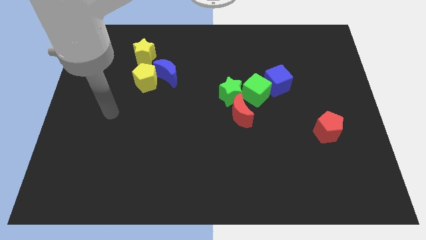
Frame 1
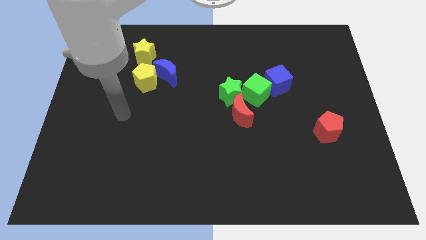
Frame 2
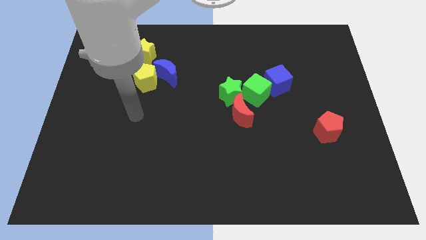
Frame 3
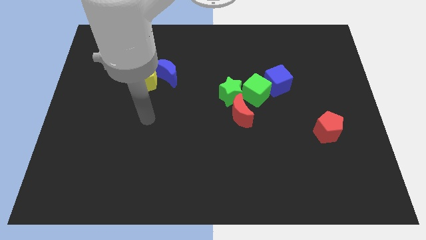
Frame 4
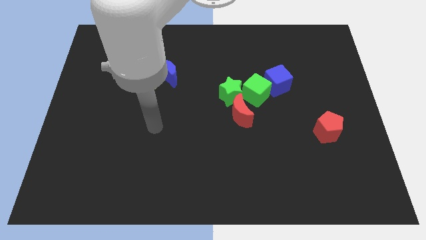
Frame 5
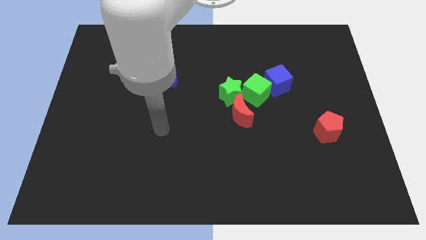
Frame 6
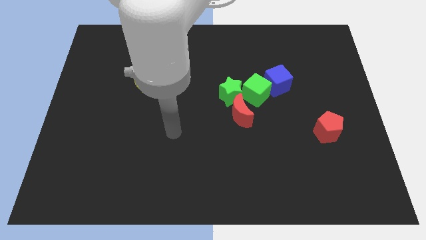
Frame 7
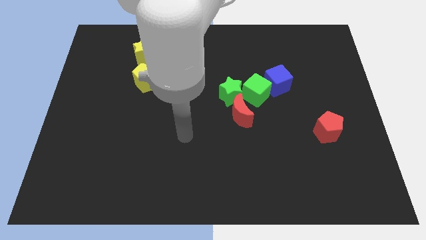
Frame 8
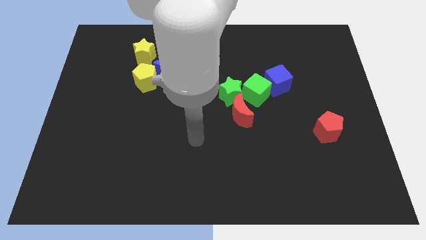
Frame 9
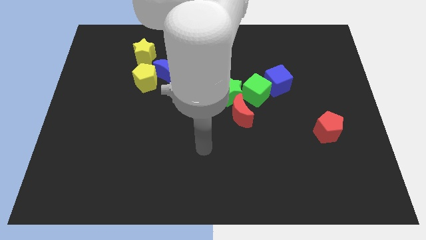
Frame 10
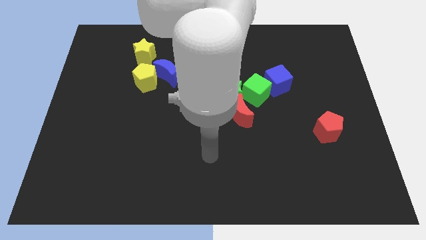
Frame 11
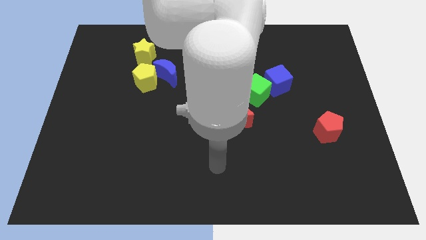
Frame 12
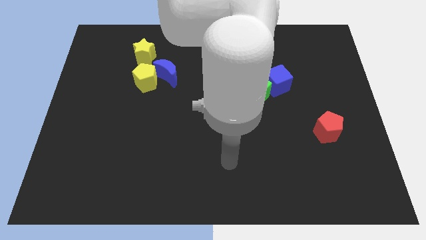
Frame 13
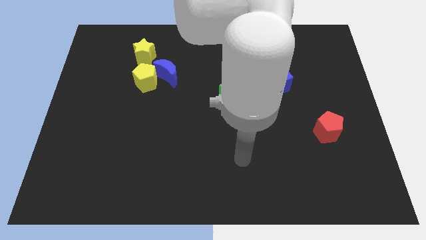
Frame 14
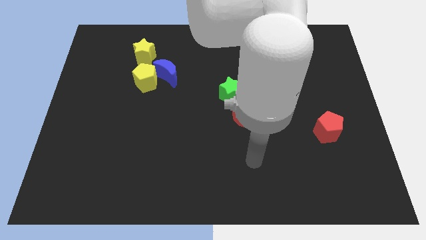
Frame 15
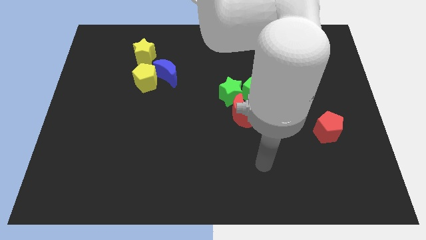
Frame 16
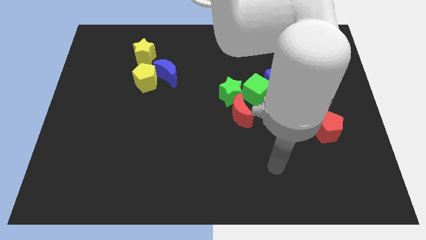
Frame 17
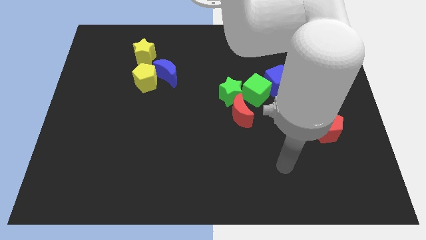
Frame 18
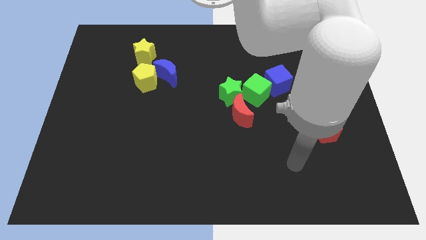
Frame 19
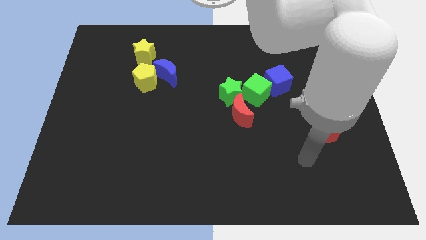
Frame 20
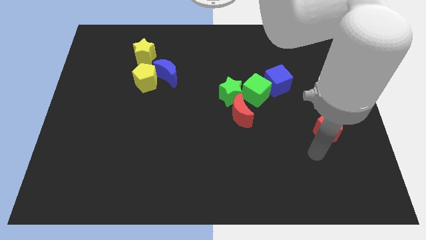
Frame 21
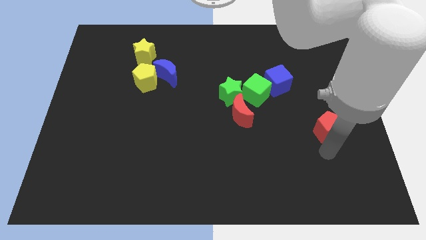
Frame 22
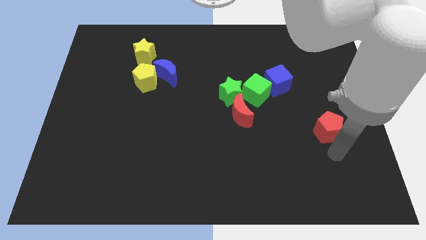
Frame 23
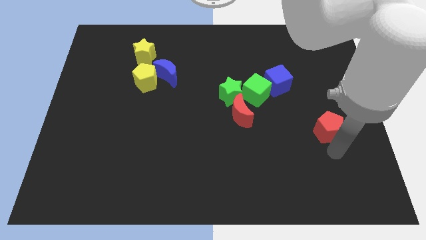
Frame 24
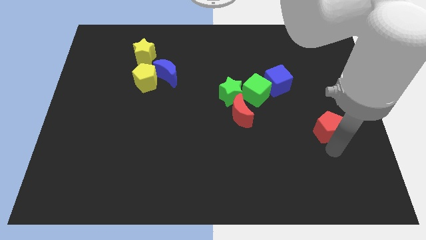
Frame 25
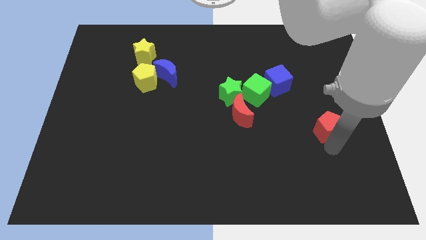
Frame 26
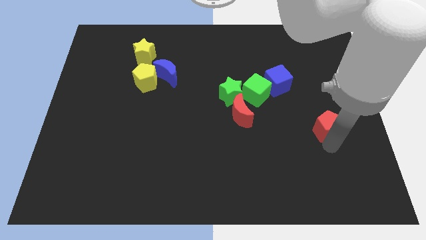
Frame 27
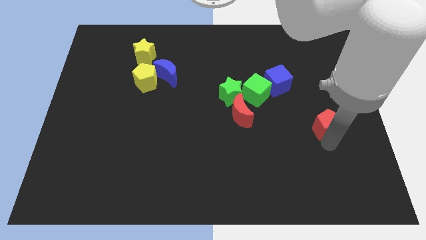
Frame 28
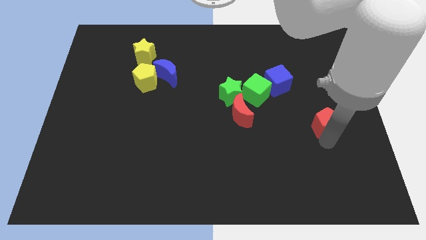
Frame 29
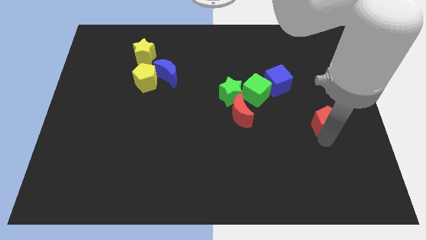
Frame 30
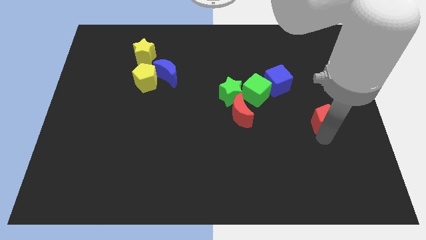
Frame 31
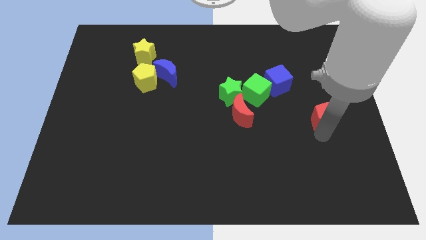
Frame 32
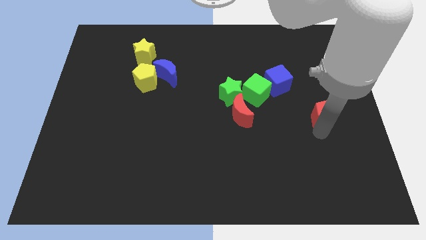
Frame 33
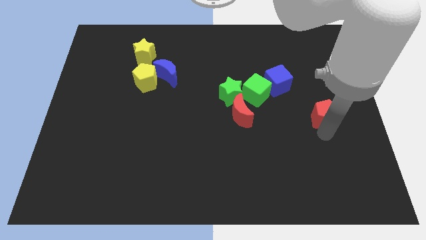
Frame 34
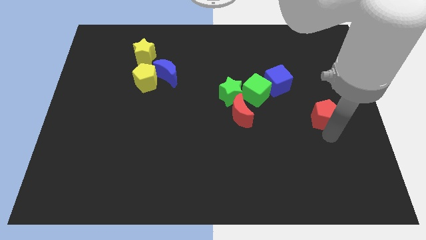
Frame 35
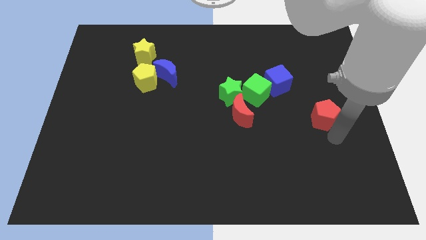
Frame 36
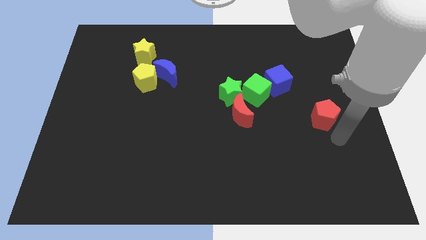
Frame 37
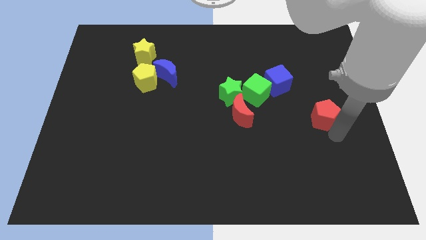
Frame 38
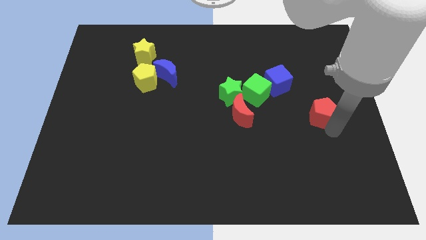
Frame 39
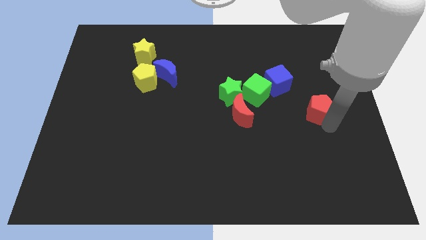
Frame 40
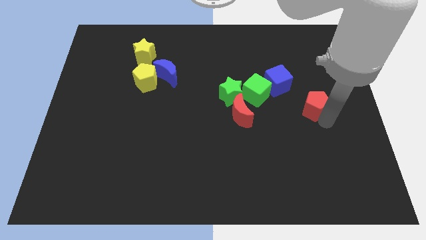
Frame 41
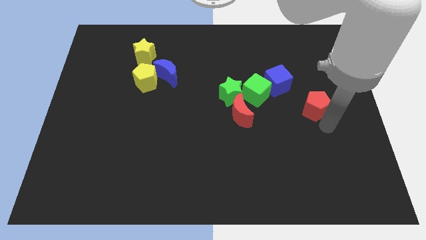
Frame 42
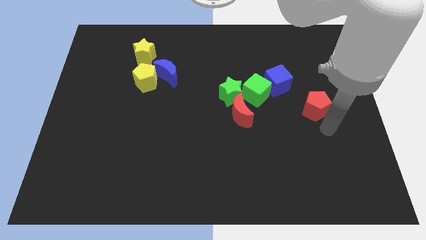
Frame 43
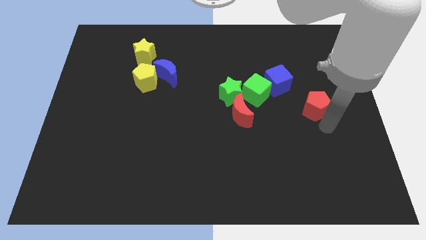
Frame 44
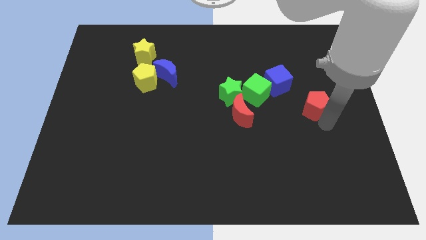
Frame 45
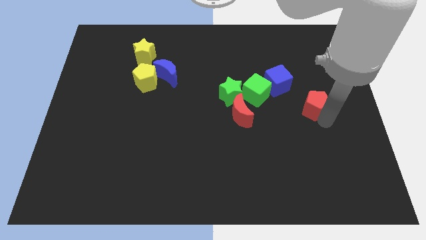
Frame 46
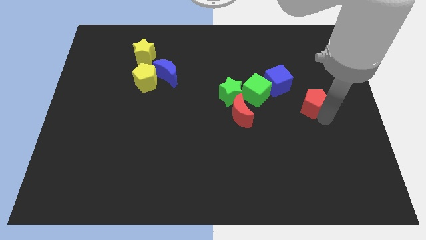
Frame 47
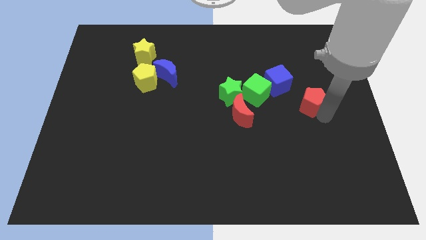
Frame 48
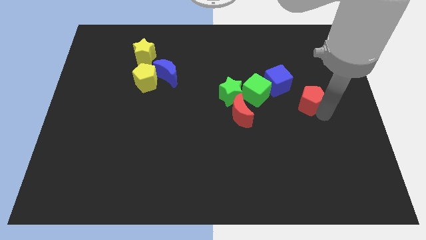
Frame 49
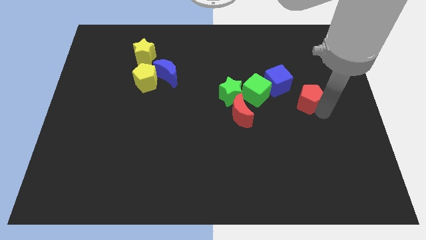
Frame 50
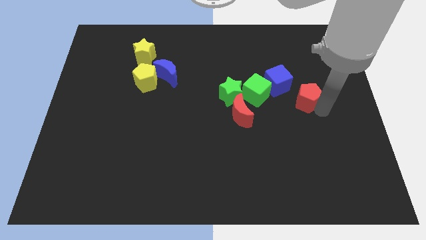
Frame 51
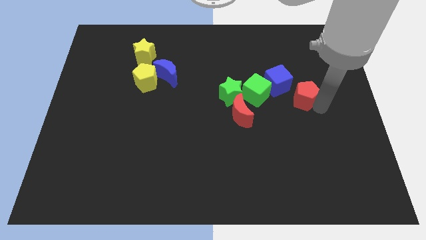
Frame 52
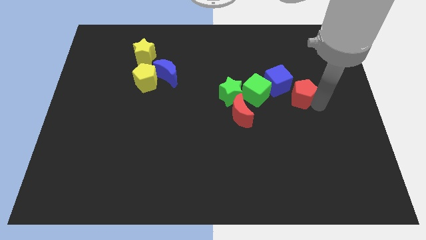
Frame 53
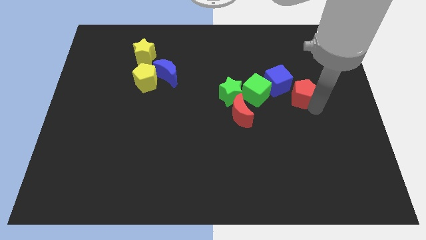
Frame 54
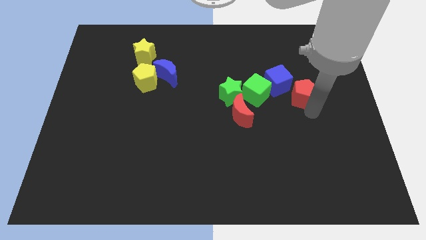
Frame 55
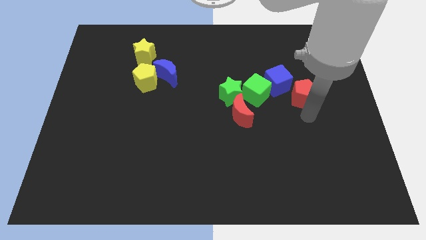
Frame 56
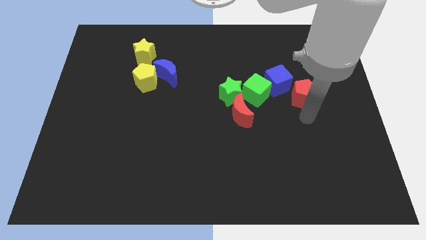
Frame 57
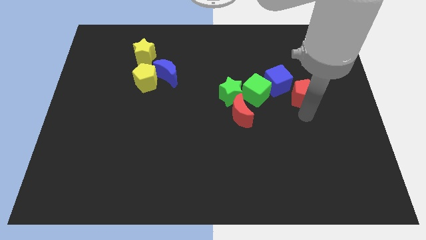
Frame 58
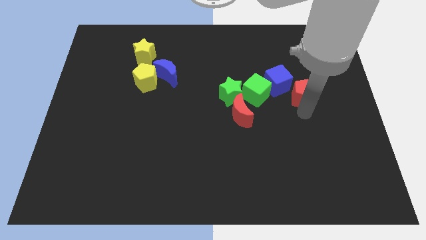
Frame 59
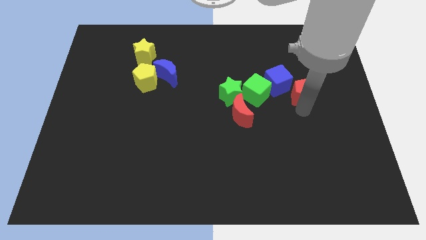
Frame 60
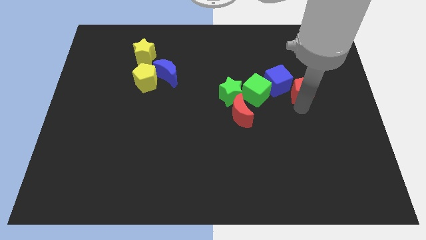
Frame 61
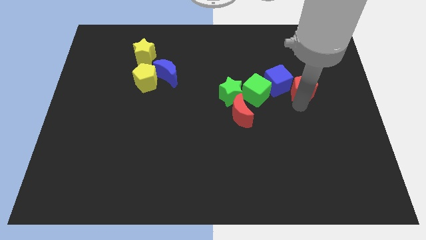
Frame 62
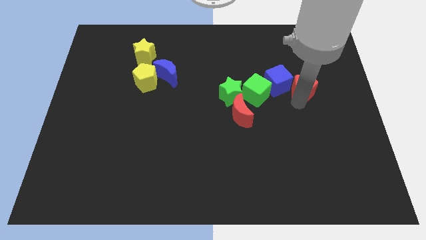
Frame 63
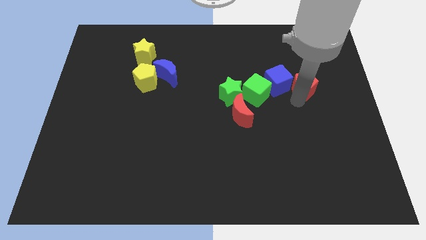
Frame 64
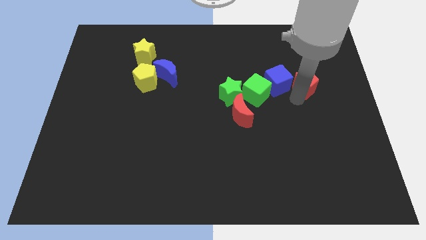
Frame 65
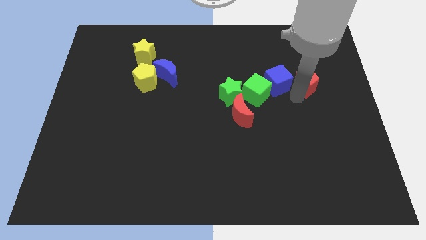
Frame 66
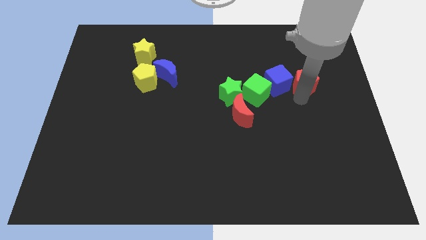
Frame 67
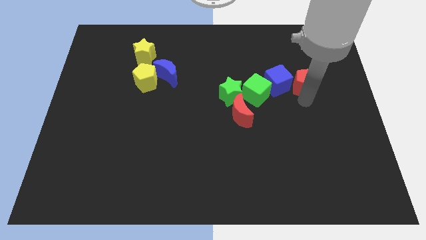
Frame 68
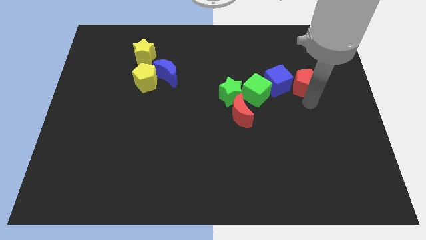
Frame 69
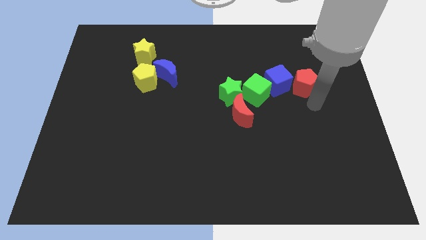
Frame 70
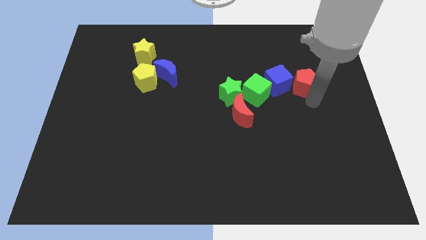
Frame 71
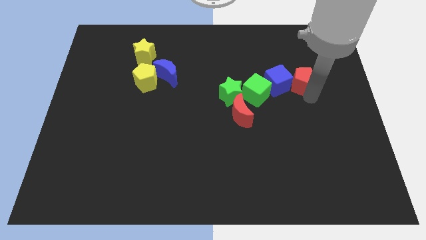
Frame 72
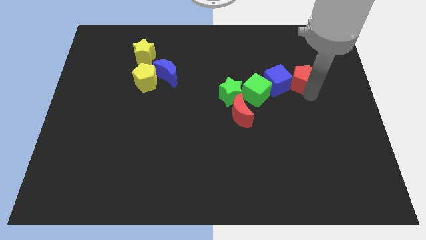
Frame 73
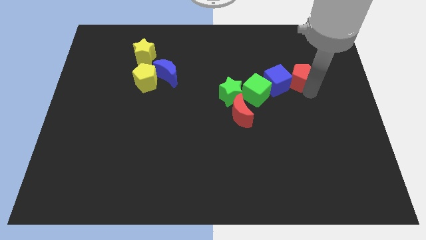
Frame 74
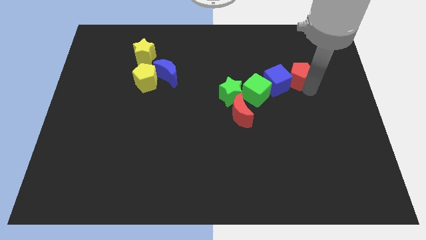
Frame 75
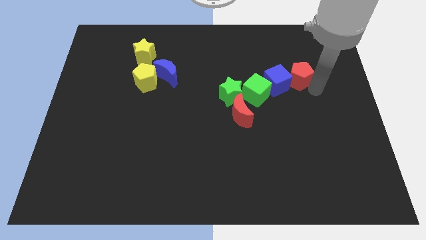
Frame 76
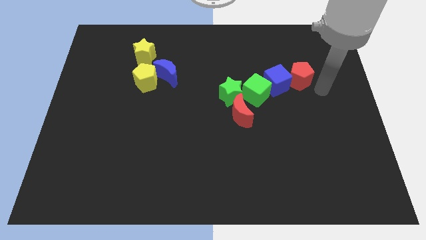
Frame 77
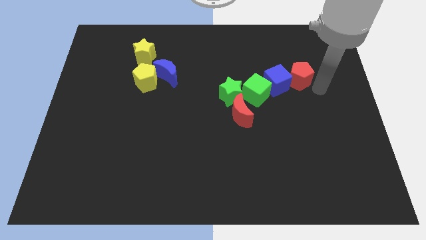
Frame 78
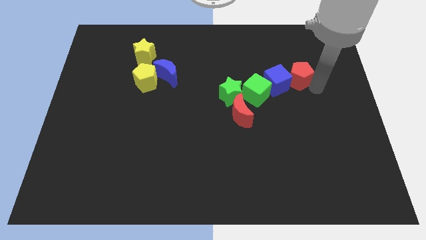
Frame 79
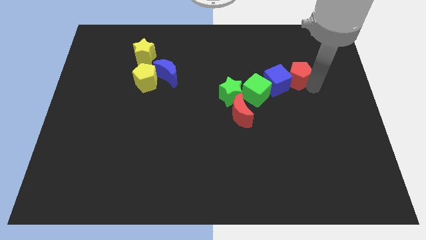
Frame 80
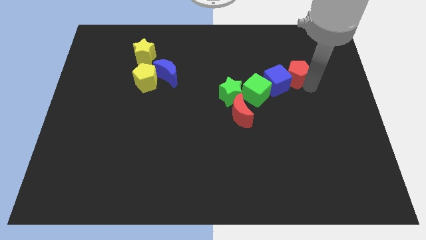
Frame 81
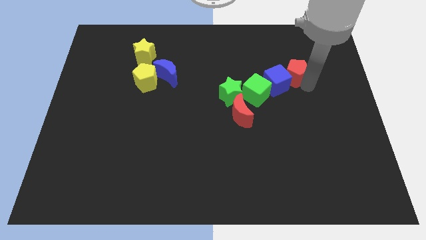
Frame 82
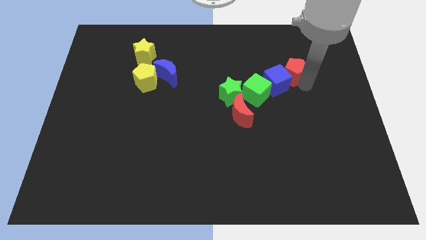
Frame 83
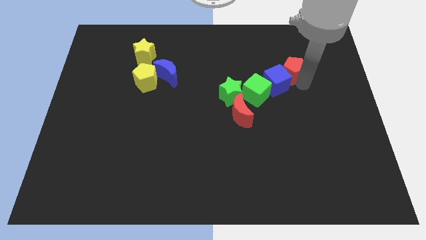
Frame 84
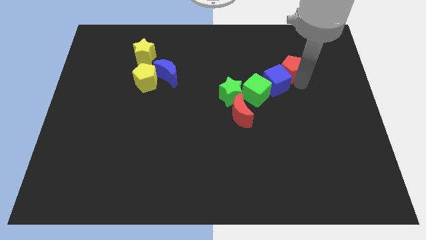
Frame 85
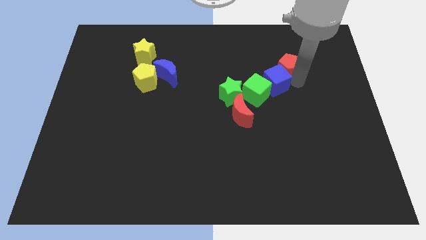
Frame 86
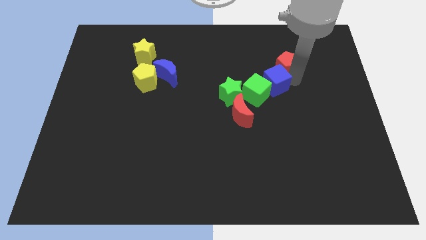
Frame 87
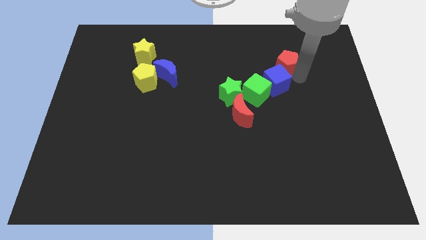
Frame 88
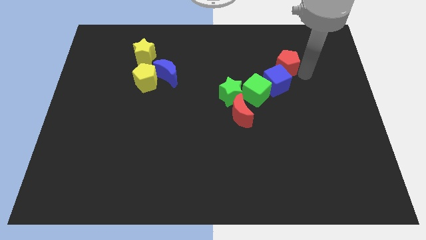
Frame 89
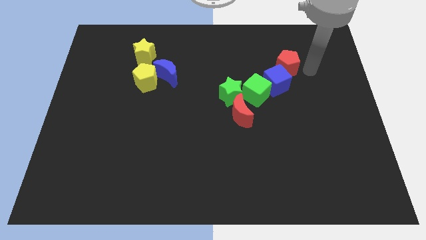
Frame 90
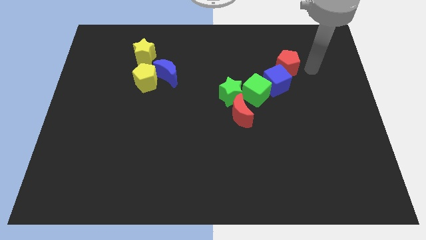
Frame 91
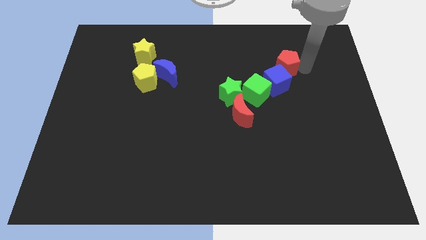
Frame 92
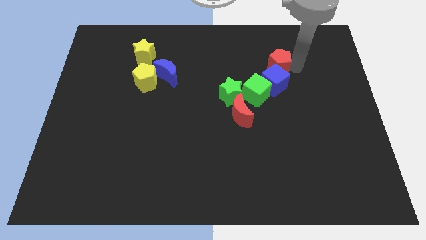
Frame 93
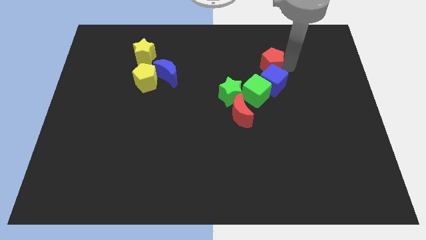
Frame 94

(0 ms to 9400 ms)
slide the red pentagon above the green cube
